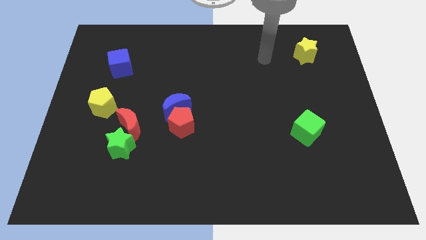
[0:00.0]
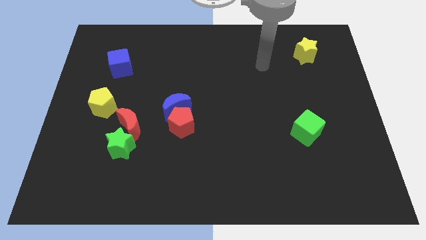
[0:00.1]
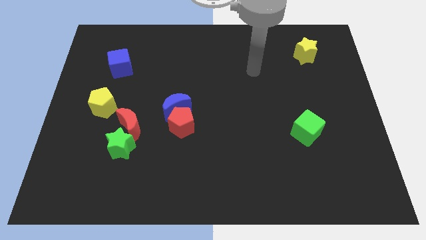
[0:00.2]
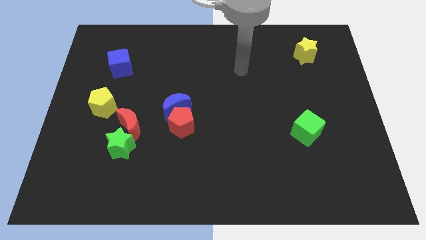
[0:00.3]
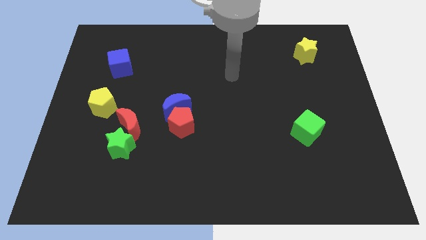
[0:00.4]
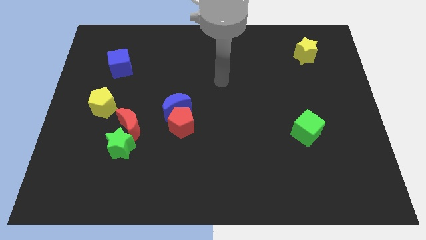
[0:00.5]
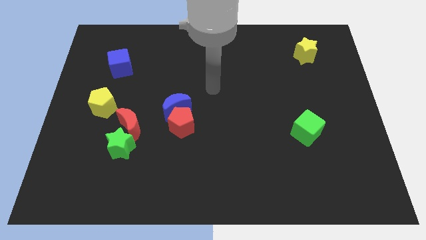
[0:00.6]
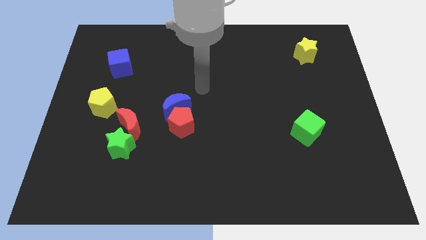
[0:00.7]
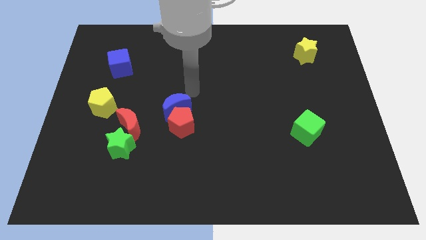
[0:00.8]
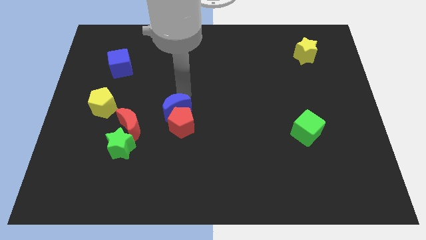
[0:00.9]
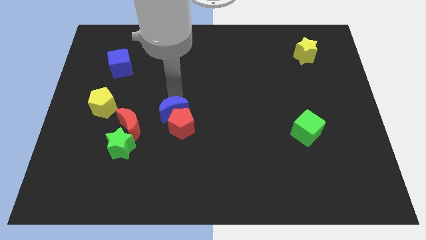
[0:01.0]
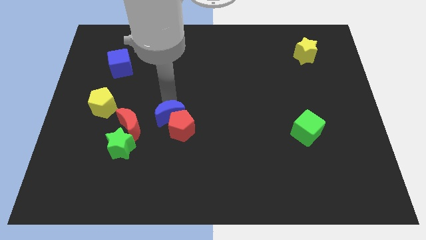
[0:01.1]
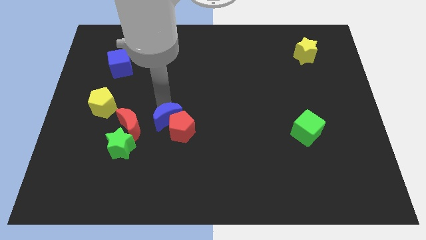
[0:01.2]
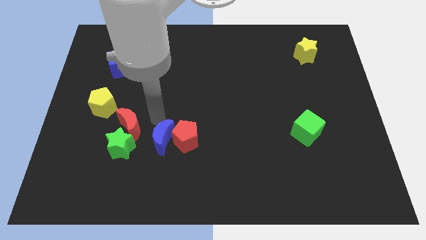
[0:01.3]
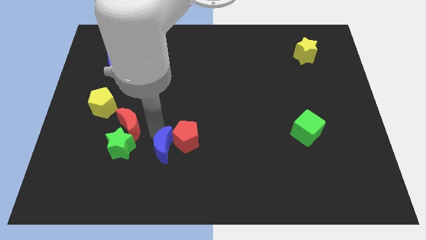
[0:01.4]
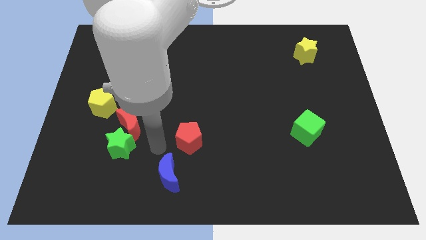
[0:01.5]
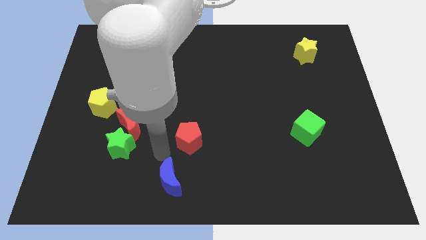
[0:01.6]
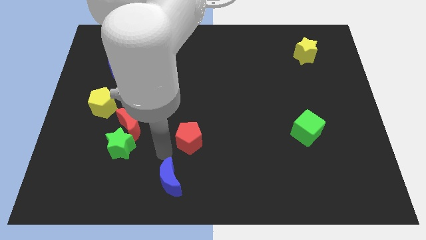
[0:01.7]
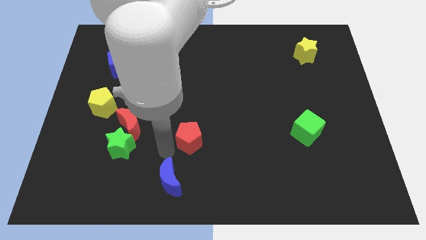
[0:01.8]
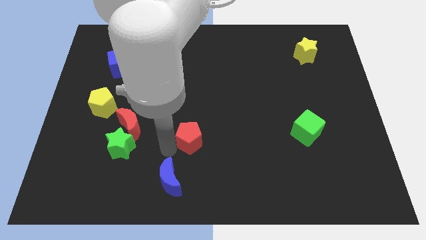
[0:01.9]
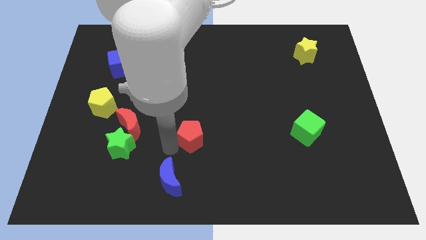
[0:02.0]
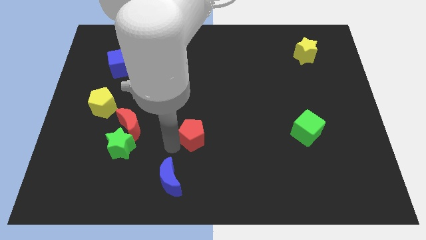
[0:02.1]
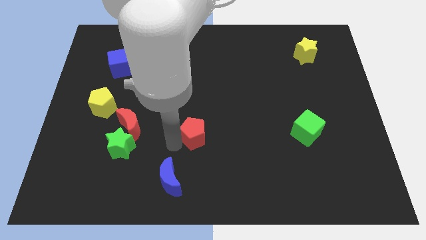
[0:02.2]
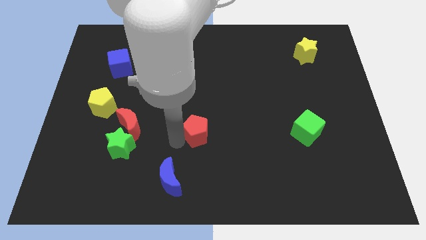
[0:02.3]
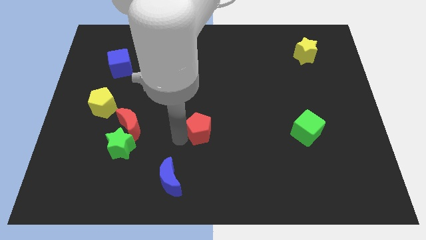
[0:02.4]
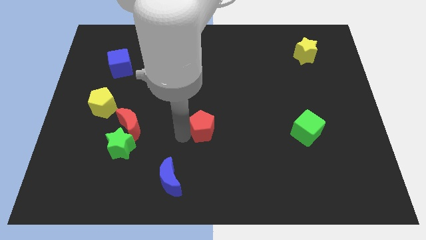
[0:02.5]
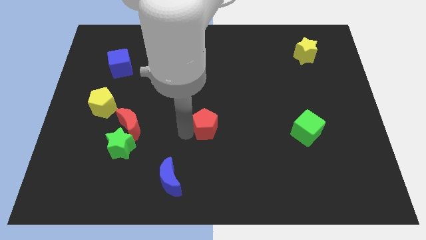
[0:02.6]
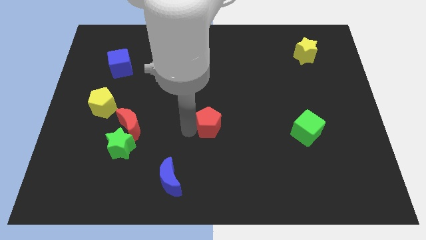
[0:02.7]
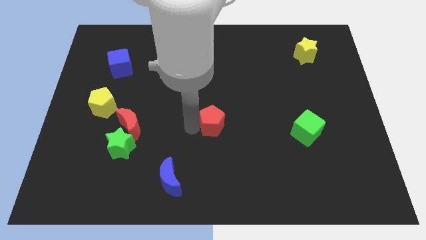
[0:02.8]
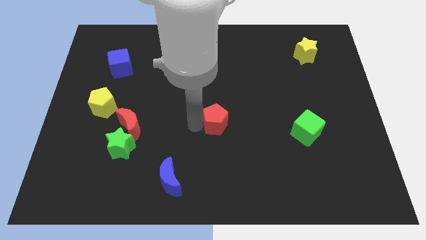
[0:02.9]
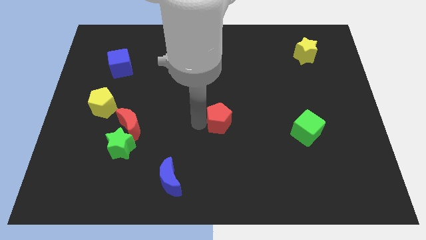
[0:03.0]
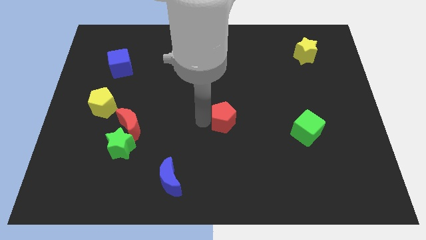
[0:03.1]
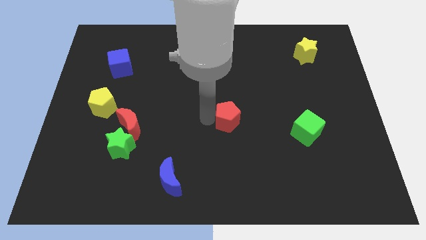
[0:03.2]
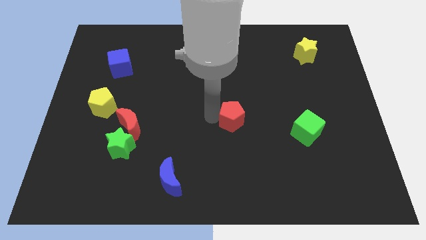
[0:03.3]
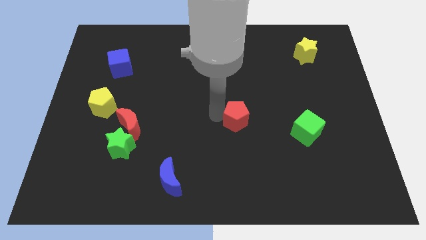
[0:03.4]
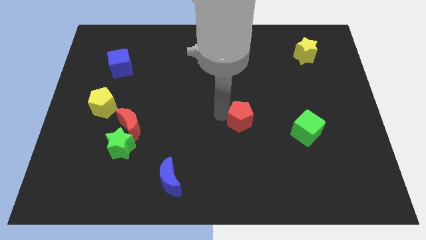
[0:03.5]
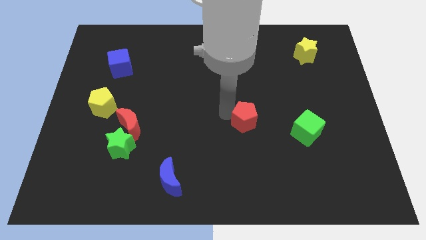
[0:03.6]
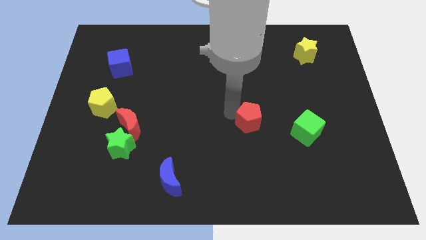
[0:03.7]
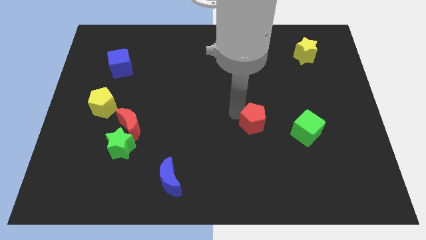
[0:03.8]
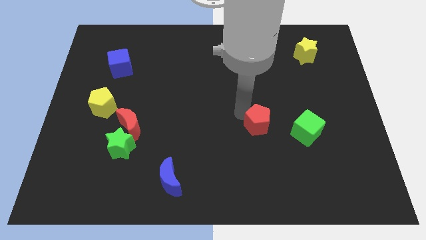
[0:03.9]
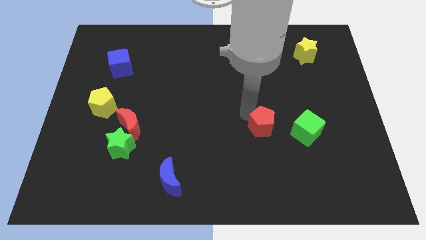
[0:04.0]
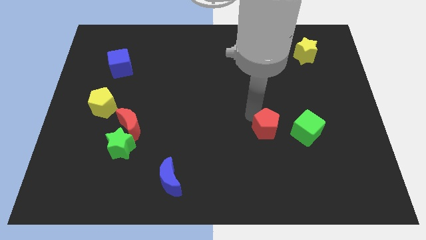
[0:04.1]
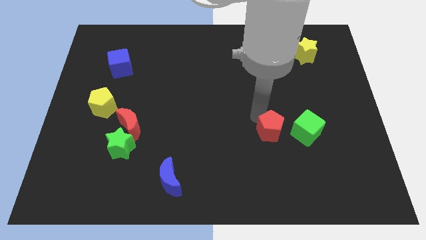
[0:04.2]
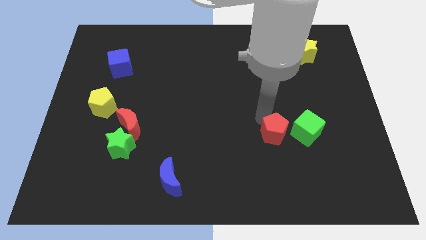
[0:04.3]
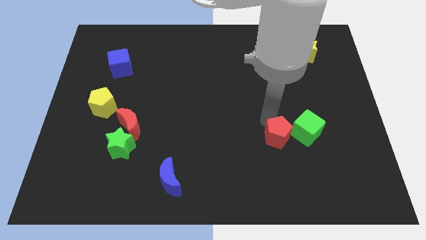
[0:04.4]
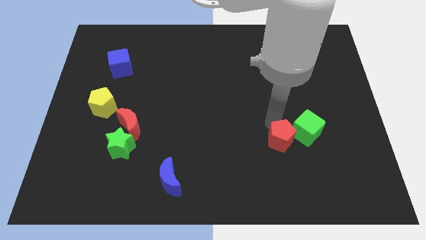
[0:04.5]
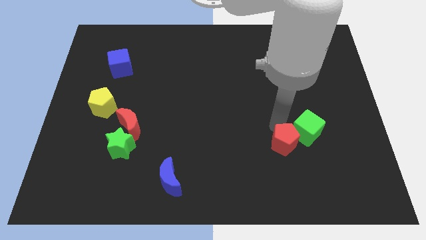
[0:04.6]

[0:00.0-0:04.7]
slightly slide the red pentagon down and to the right

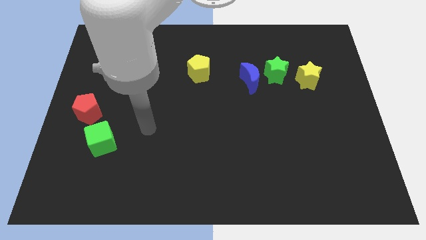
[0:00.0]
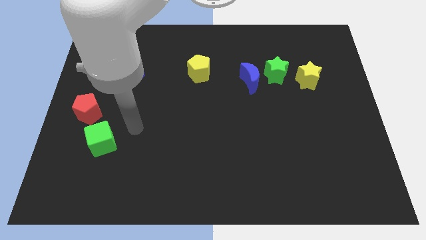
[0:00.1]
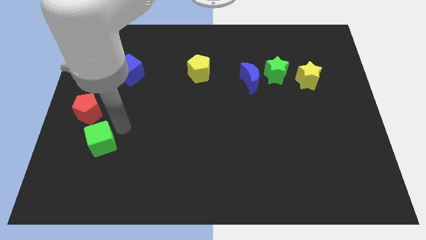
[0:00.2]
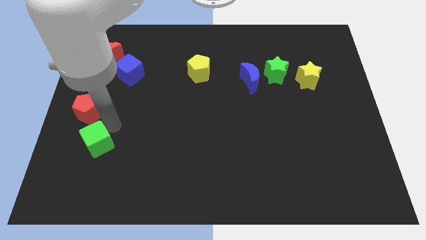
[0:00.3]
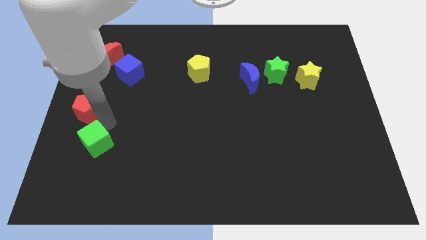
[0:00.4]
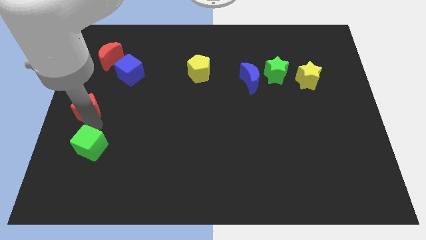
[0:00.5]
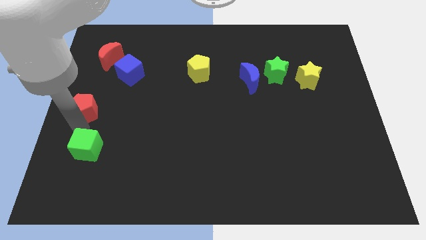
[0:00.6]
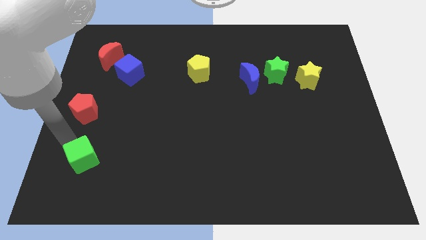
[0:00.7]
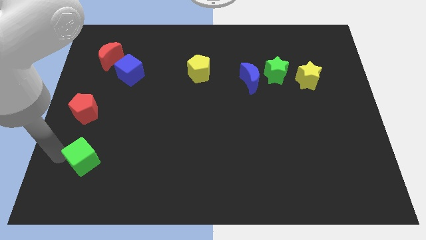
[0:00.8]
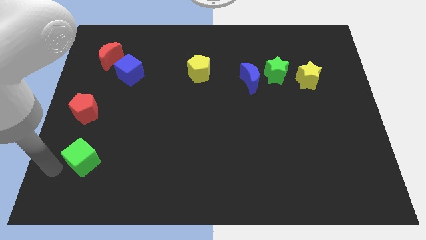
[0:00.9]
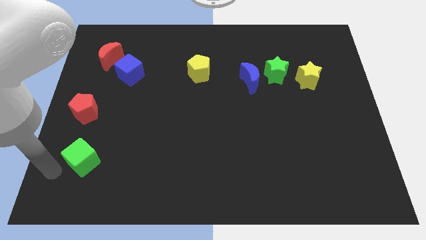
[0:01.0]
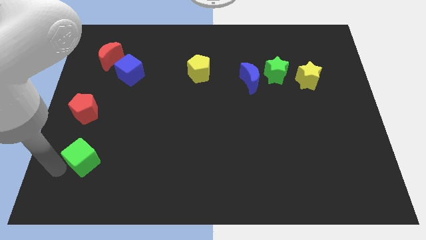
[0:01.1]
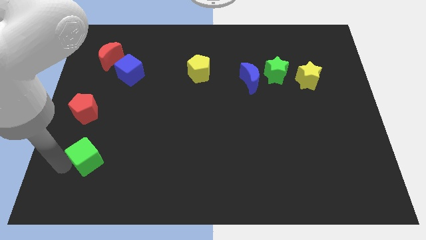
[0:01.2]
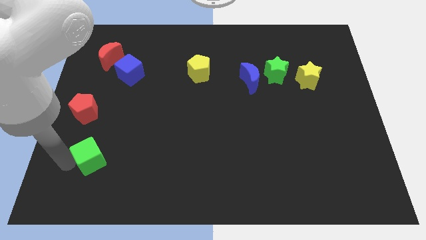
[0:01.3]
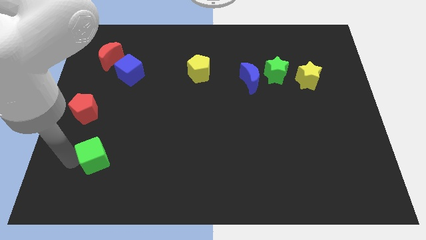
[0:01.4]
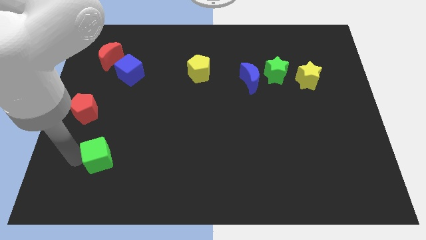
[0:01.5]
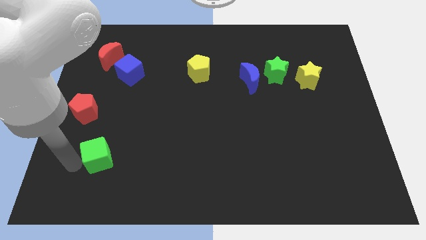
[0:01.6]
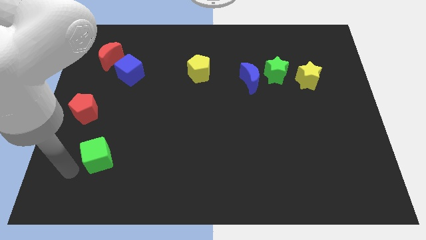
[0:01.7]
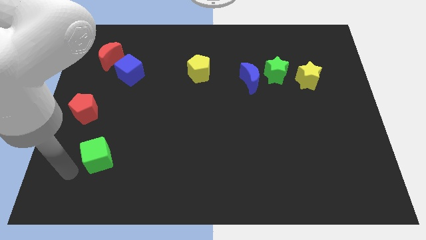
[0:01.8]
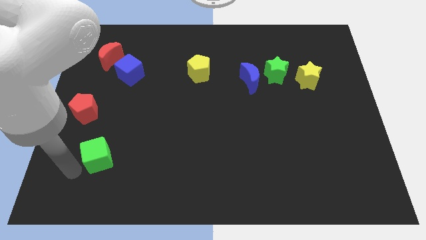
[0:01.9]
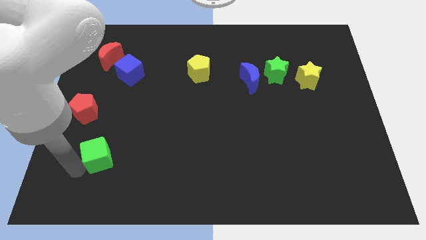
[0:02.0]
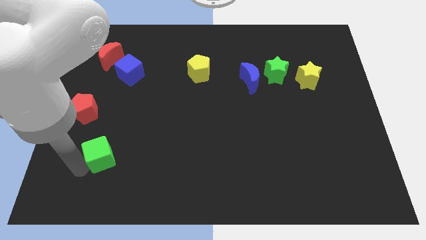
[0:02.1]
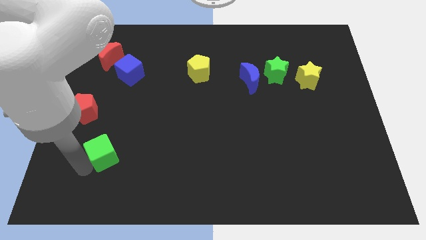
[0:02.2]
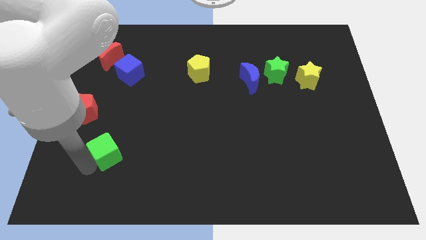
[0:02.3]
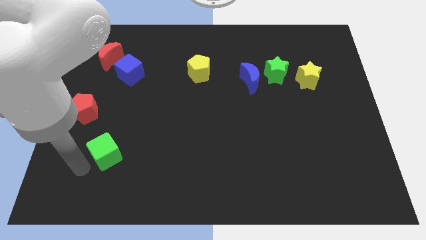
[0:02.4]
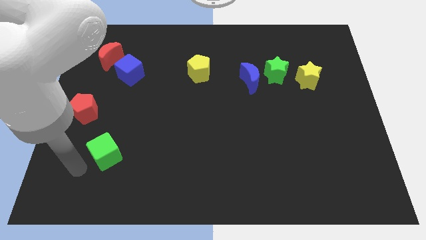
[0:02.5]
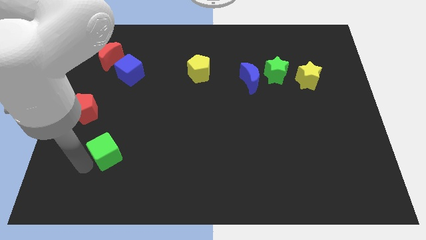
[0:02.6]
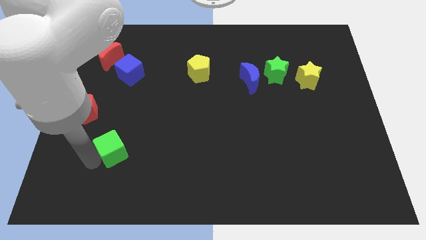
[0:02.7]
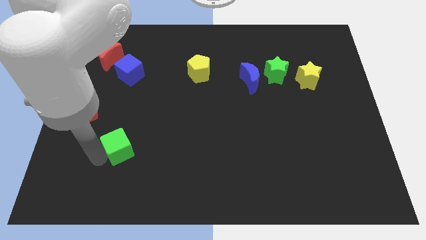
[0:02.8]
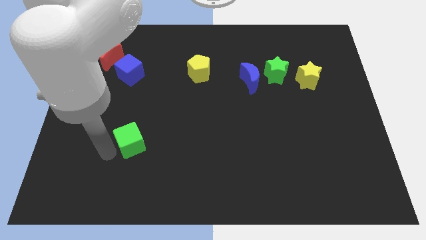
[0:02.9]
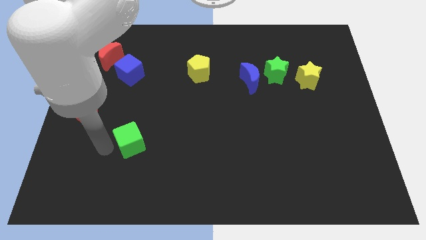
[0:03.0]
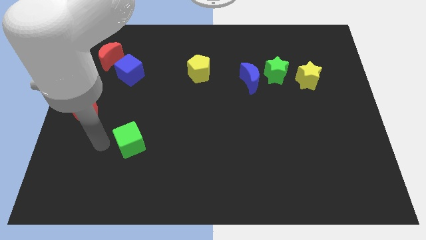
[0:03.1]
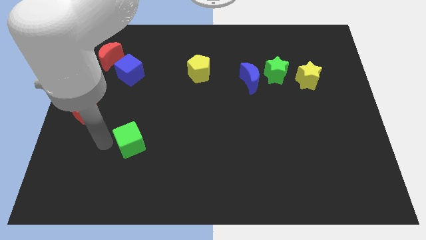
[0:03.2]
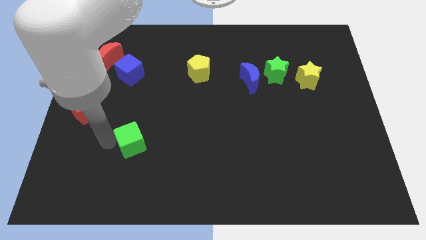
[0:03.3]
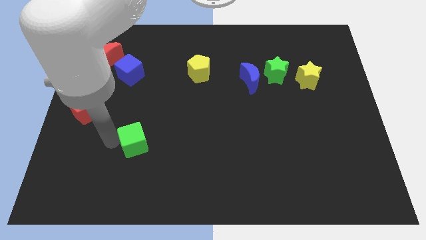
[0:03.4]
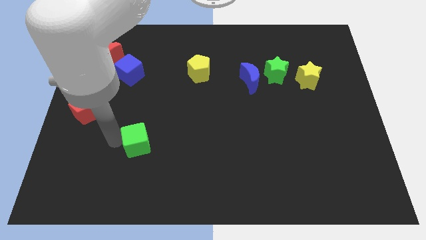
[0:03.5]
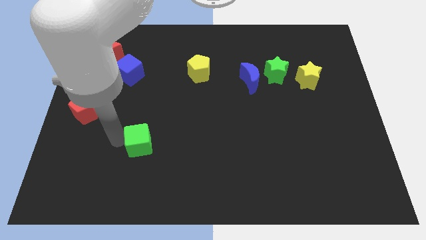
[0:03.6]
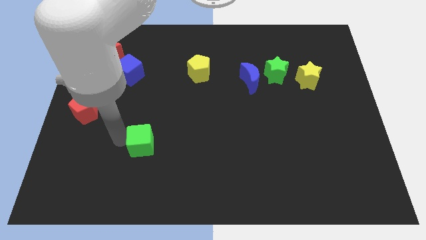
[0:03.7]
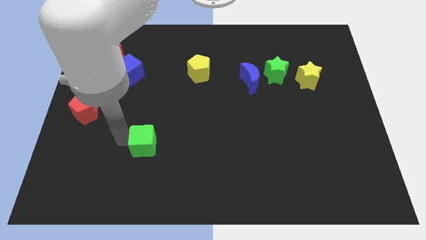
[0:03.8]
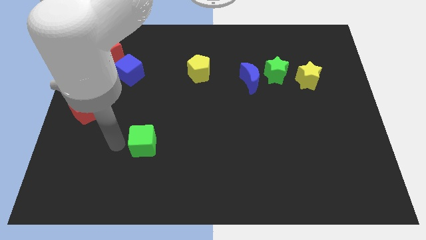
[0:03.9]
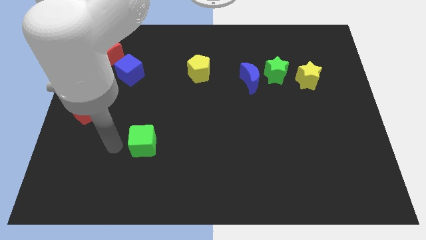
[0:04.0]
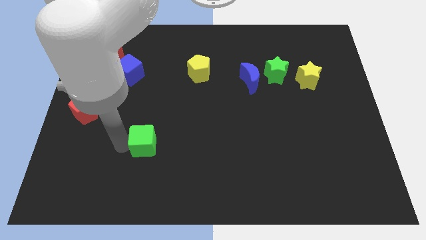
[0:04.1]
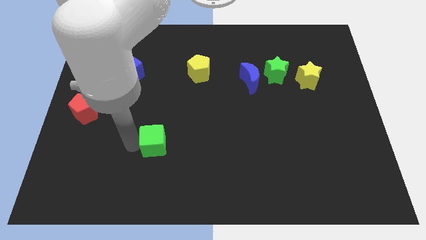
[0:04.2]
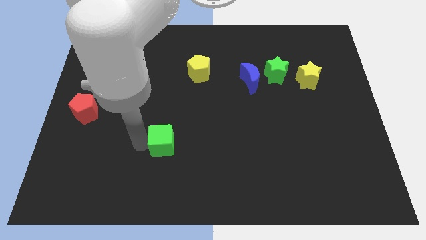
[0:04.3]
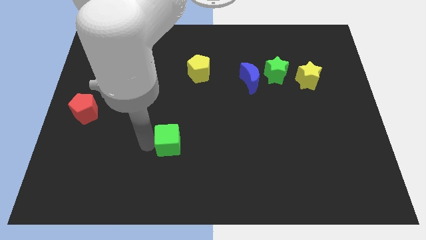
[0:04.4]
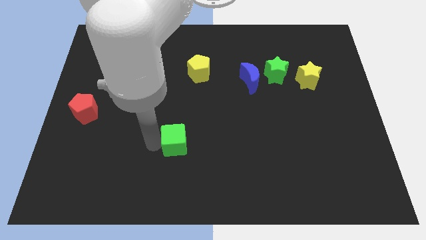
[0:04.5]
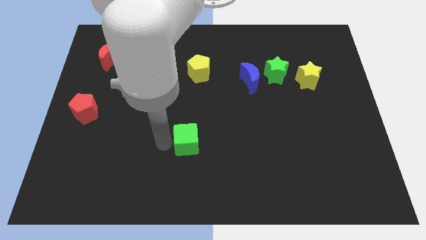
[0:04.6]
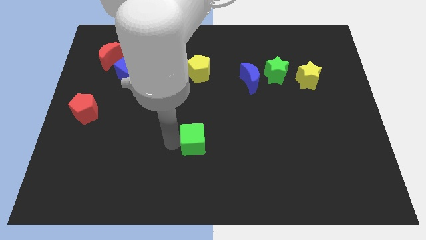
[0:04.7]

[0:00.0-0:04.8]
push the green cube right
